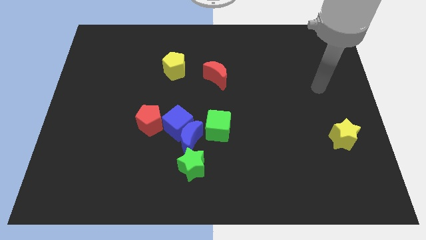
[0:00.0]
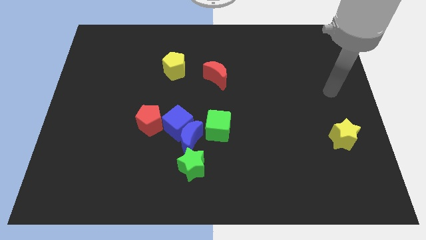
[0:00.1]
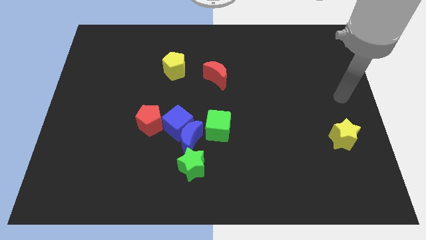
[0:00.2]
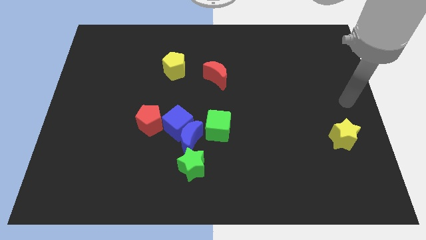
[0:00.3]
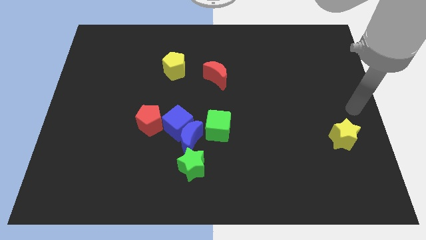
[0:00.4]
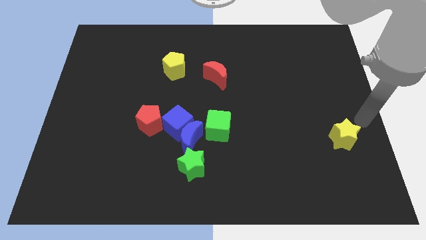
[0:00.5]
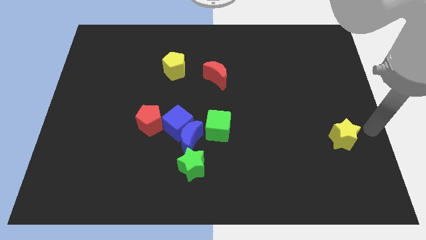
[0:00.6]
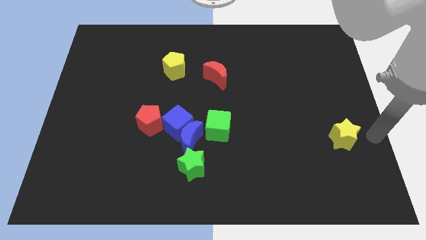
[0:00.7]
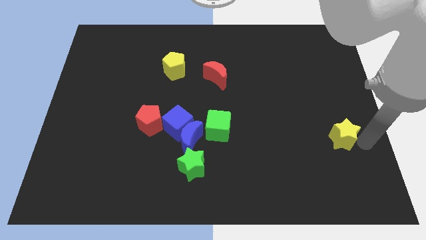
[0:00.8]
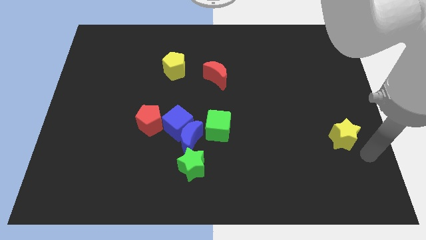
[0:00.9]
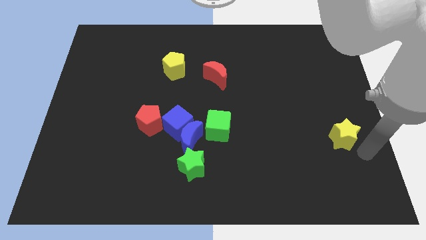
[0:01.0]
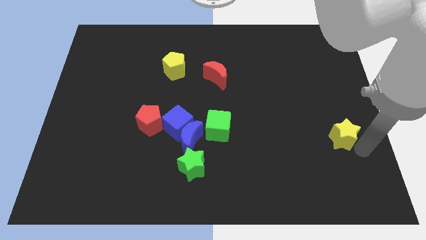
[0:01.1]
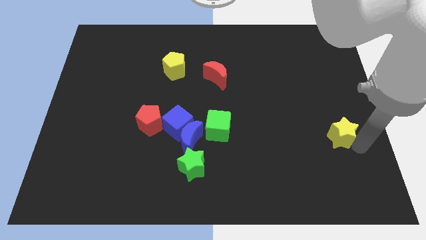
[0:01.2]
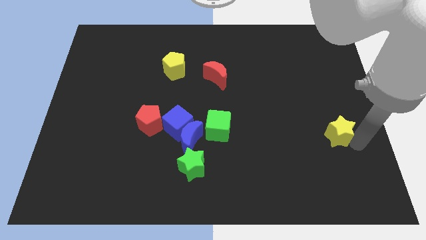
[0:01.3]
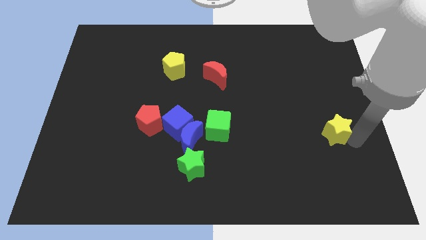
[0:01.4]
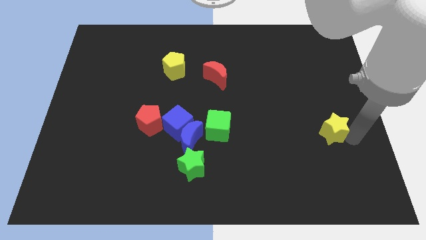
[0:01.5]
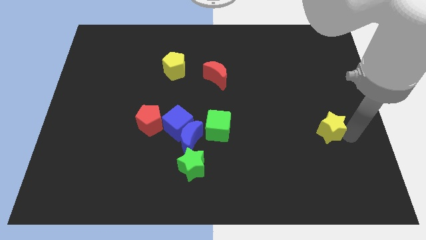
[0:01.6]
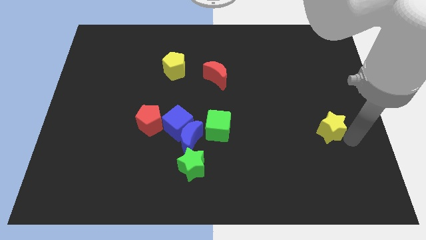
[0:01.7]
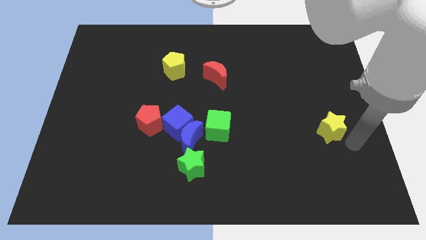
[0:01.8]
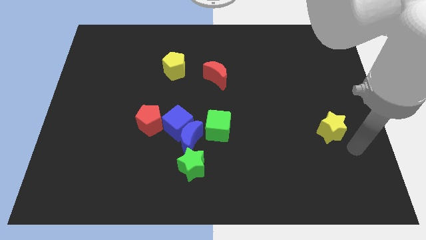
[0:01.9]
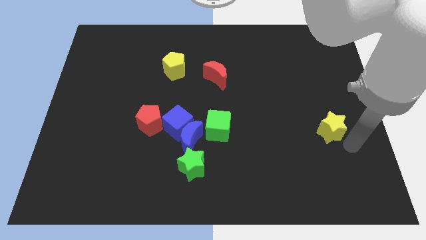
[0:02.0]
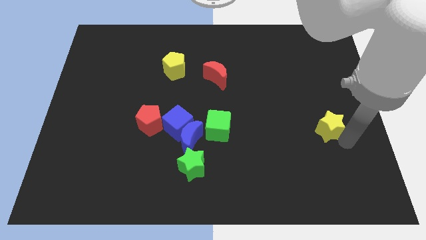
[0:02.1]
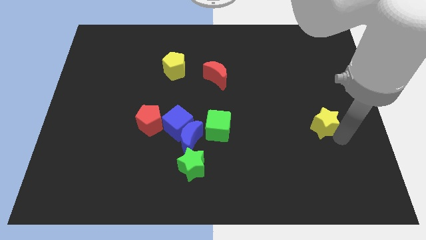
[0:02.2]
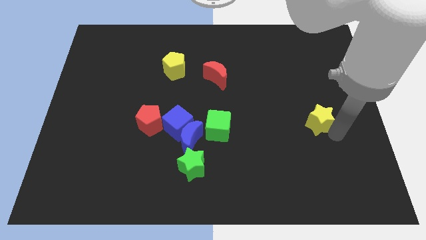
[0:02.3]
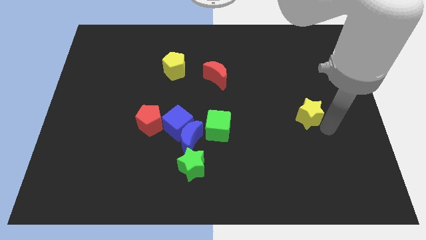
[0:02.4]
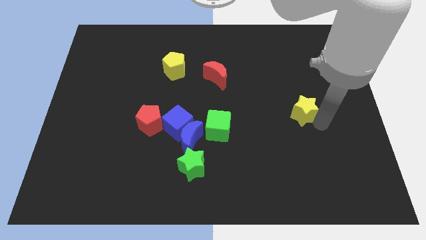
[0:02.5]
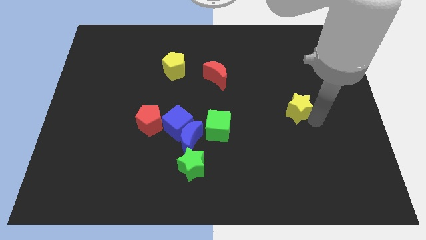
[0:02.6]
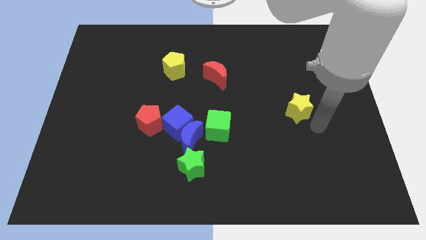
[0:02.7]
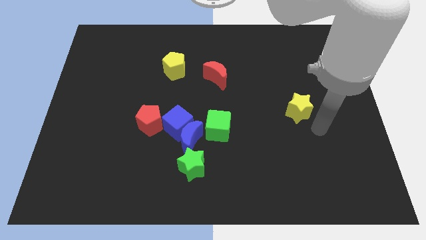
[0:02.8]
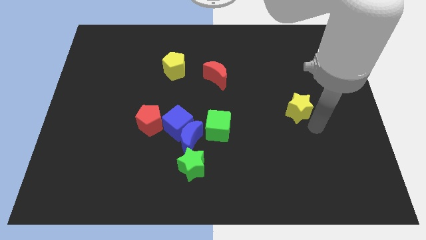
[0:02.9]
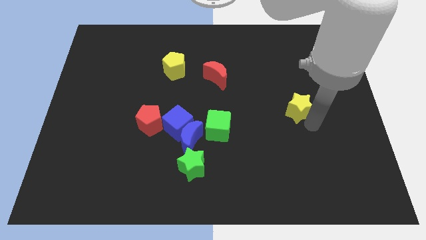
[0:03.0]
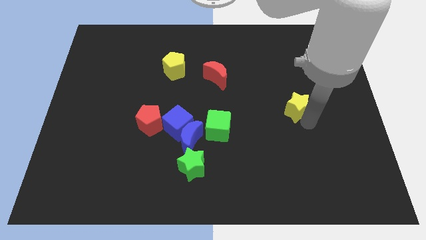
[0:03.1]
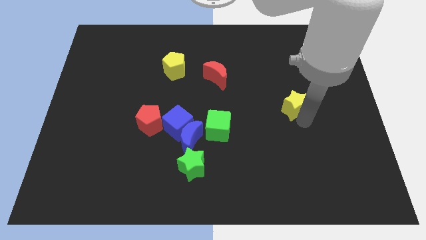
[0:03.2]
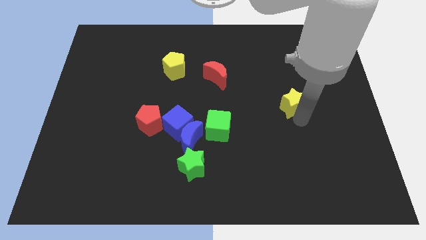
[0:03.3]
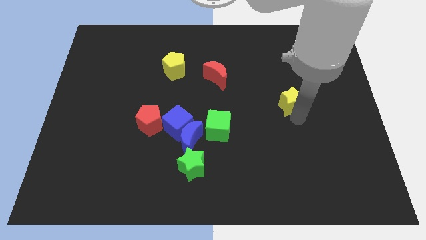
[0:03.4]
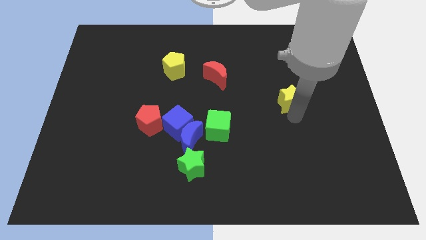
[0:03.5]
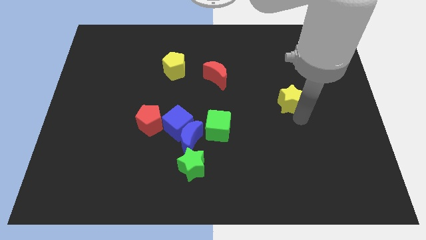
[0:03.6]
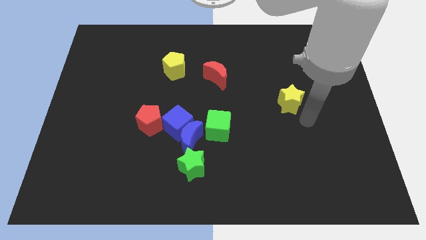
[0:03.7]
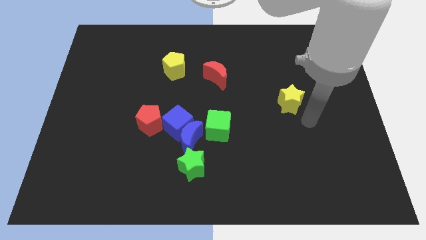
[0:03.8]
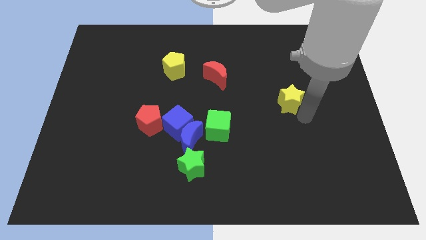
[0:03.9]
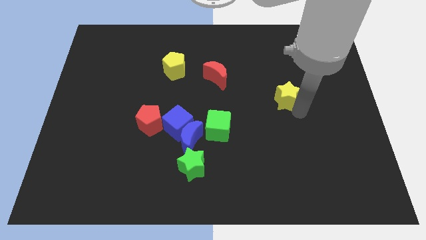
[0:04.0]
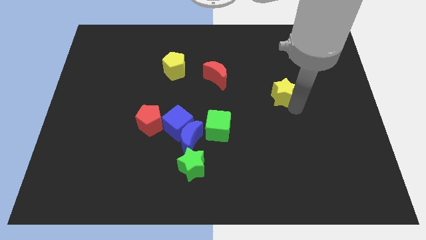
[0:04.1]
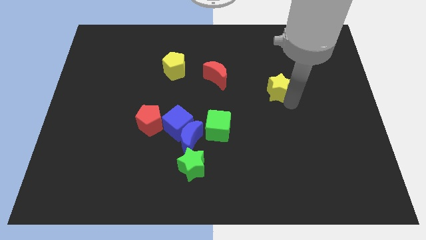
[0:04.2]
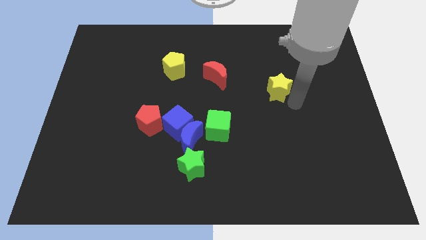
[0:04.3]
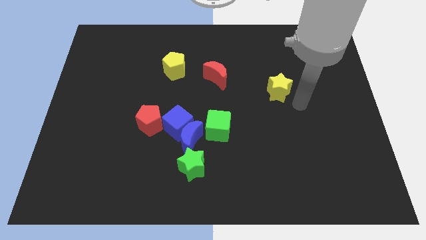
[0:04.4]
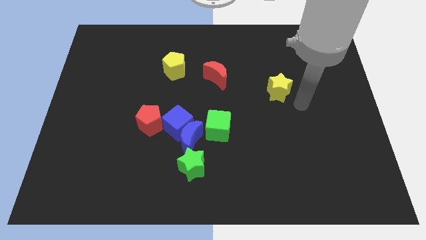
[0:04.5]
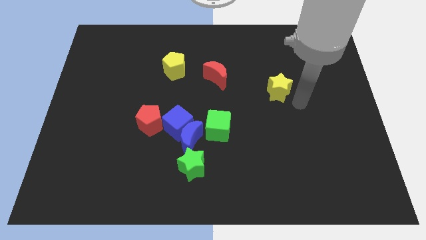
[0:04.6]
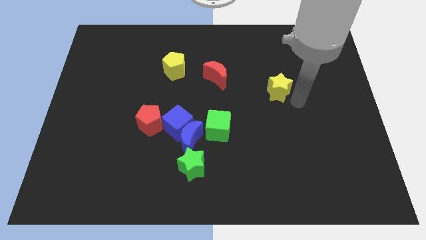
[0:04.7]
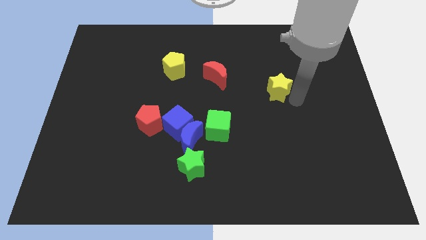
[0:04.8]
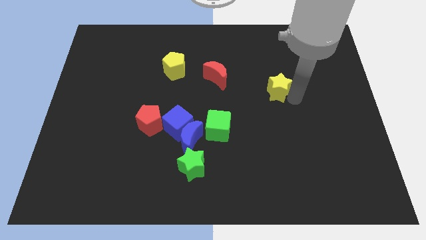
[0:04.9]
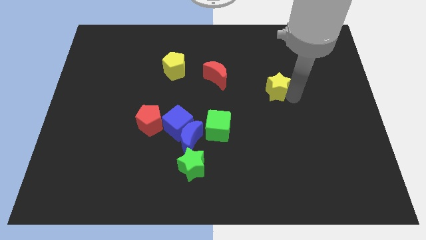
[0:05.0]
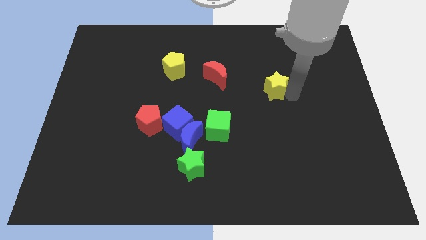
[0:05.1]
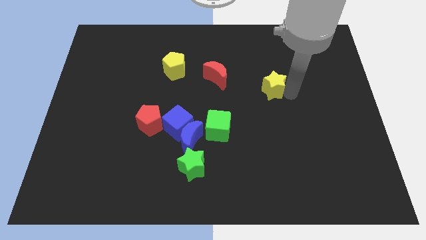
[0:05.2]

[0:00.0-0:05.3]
slide the yellow star up and to the left diagonally

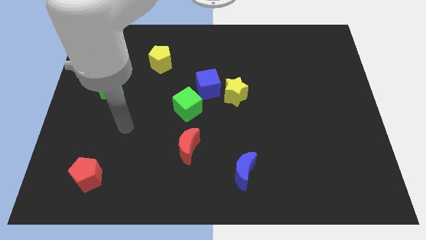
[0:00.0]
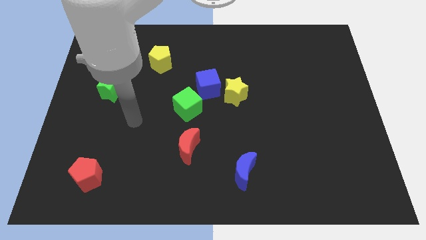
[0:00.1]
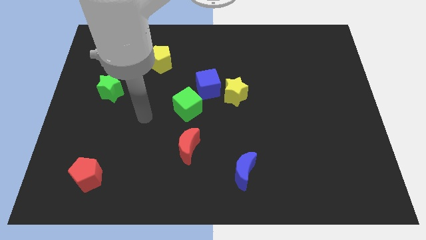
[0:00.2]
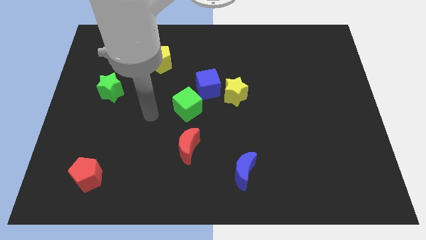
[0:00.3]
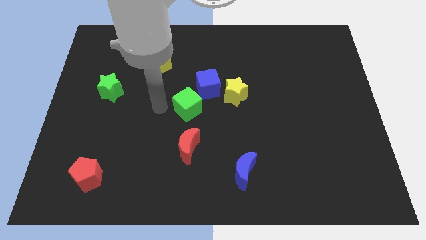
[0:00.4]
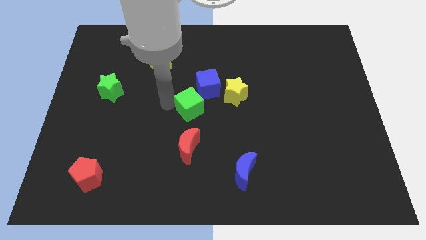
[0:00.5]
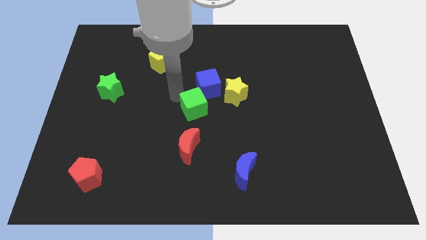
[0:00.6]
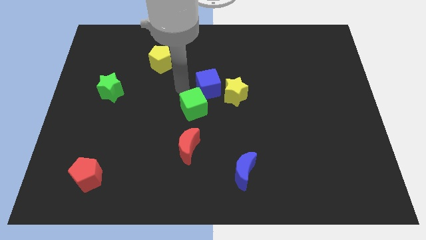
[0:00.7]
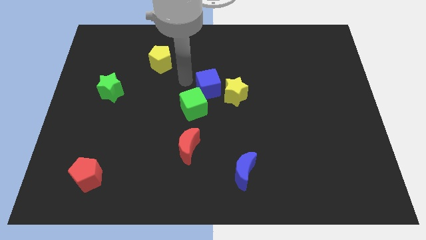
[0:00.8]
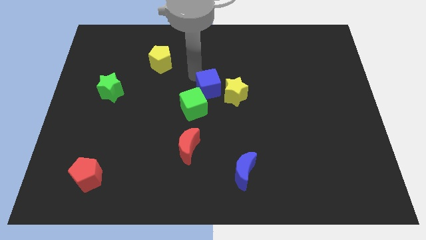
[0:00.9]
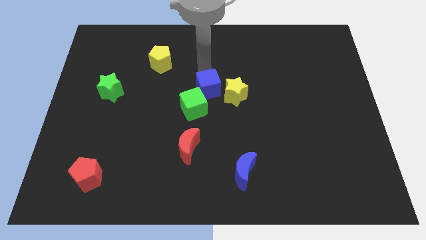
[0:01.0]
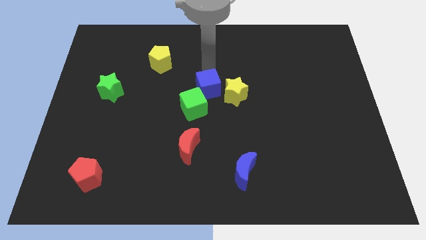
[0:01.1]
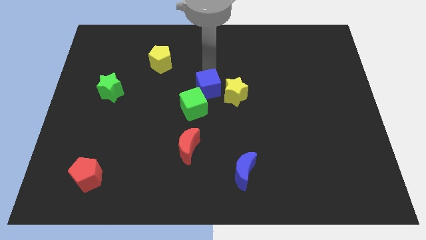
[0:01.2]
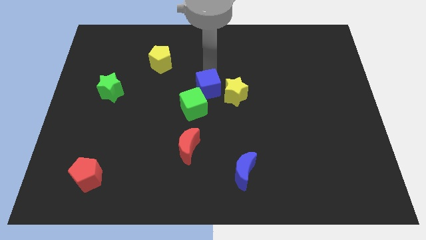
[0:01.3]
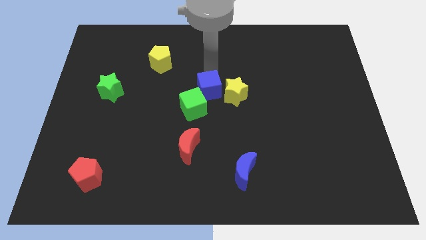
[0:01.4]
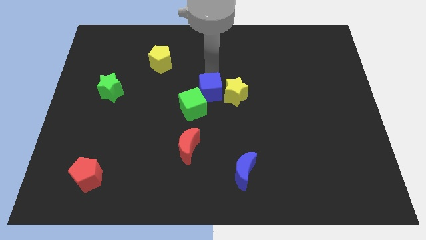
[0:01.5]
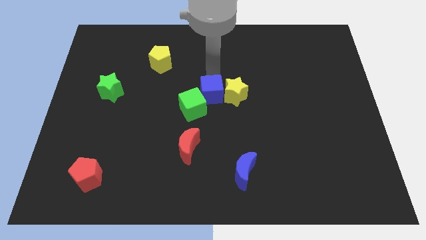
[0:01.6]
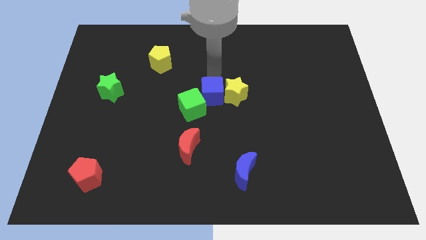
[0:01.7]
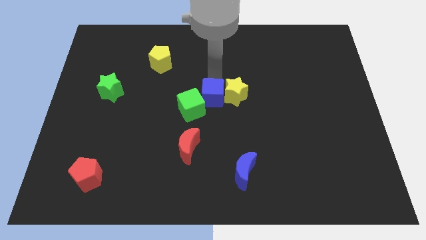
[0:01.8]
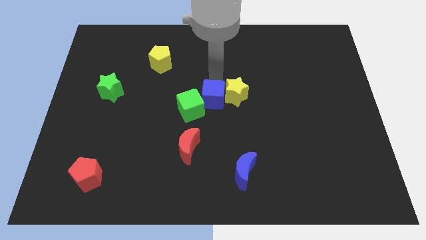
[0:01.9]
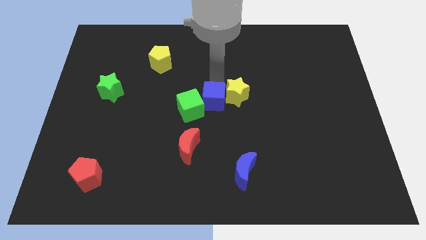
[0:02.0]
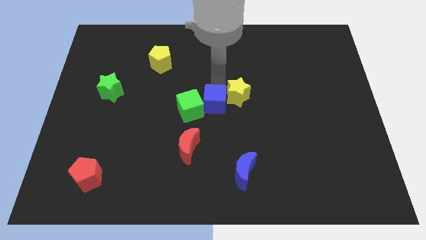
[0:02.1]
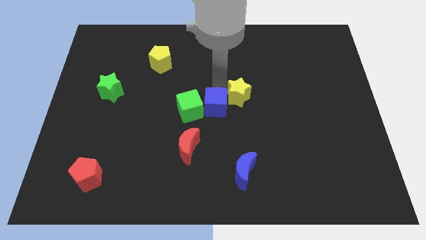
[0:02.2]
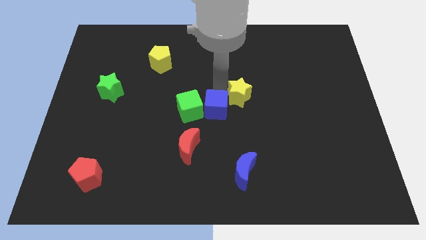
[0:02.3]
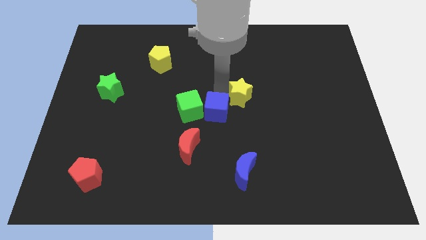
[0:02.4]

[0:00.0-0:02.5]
slide the blue cube somewhat downwards

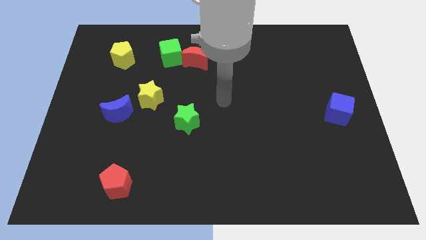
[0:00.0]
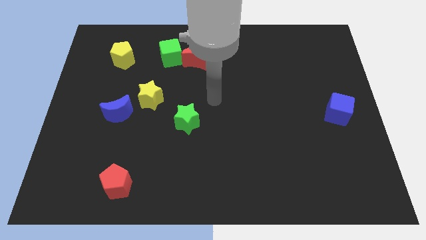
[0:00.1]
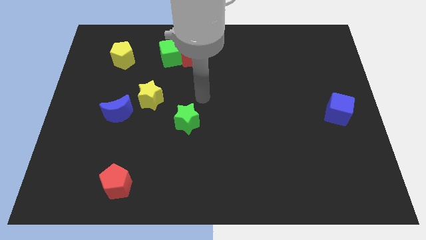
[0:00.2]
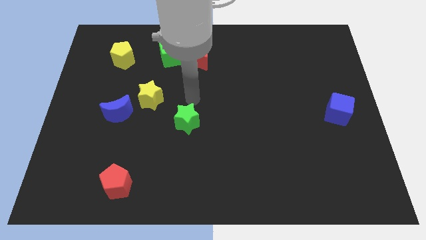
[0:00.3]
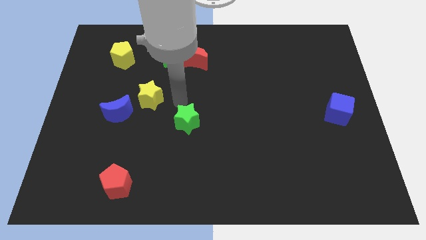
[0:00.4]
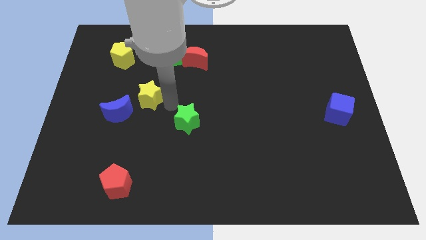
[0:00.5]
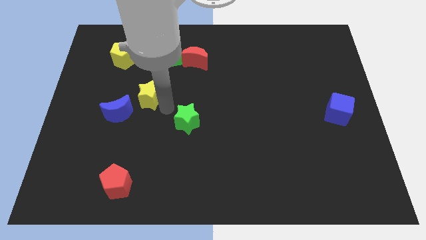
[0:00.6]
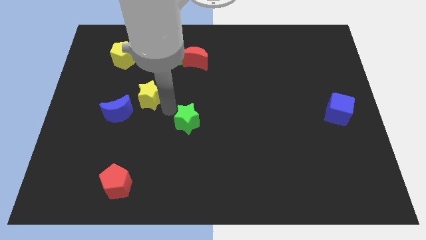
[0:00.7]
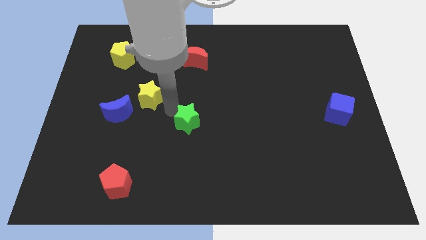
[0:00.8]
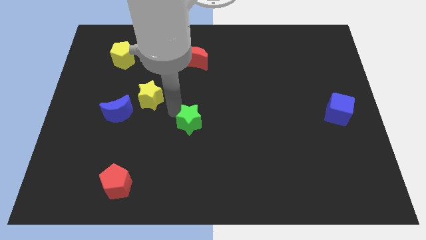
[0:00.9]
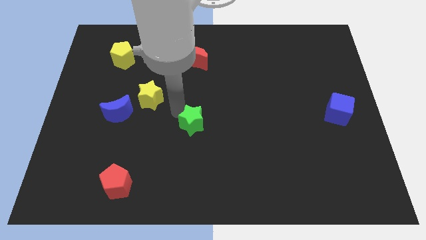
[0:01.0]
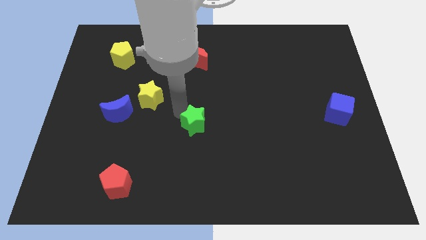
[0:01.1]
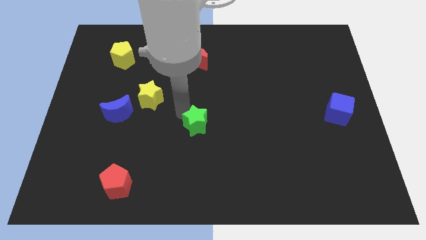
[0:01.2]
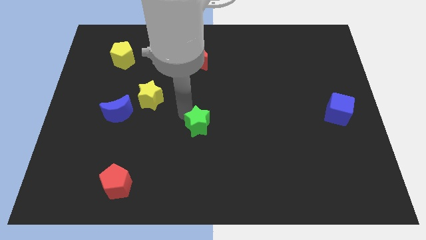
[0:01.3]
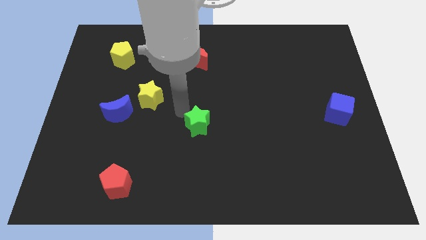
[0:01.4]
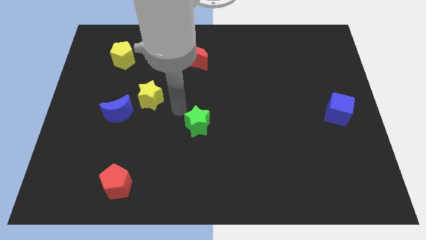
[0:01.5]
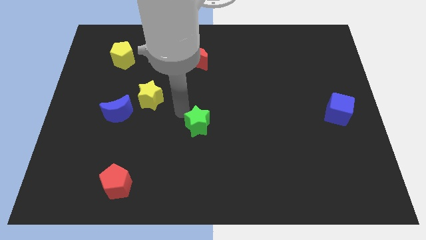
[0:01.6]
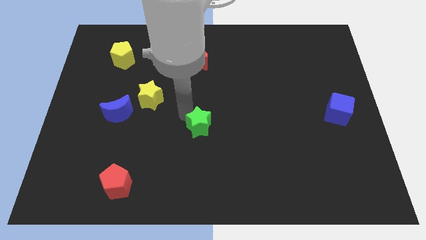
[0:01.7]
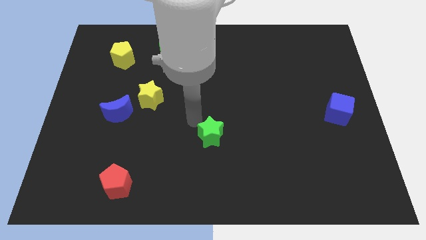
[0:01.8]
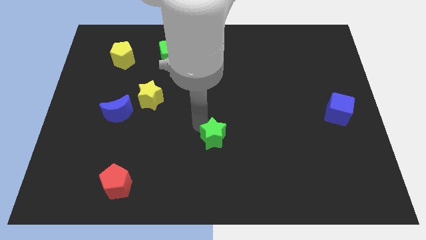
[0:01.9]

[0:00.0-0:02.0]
slightly slide the green star down and right diagonally
